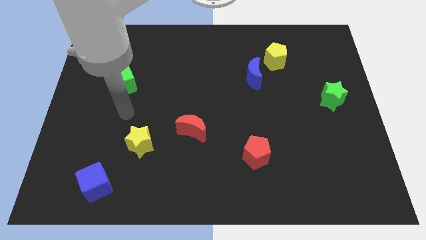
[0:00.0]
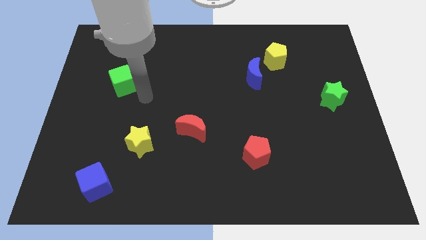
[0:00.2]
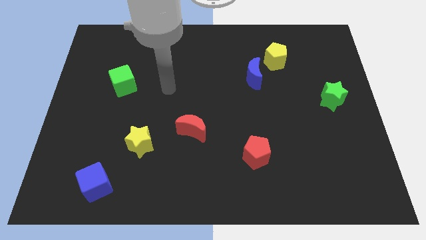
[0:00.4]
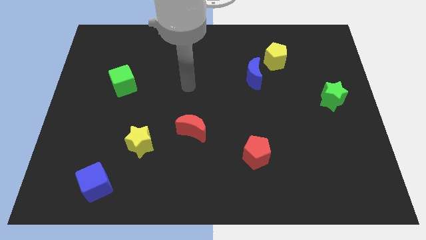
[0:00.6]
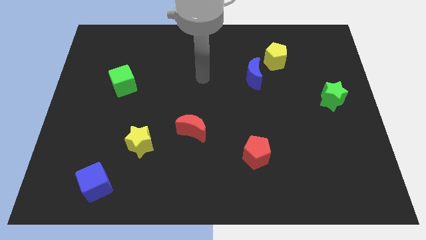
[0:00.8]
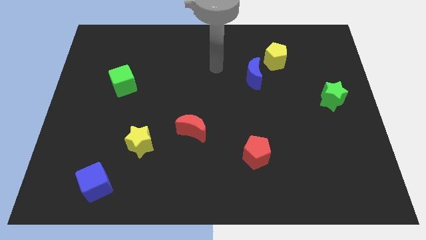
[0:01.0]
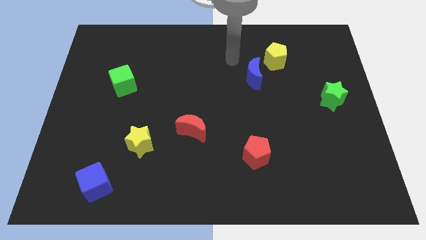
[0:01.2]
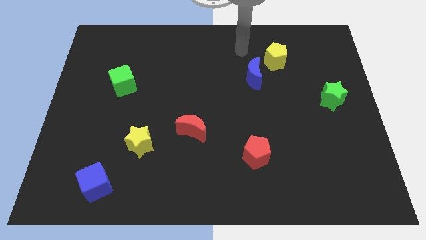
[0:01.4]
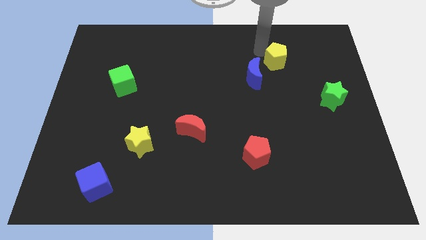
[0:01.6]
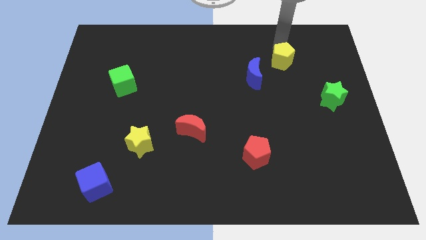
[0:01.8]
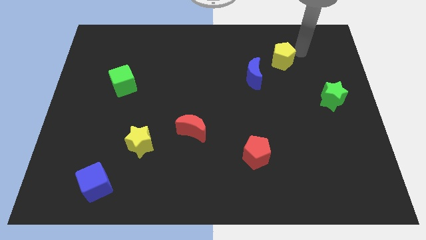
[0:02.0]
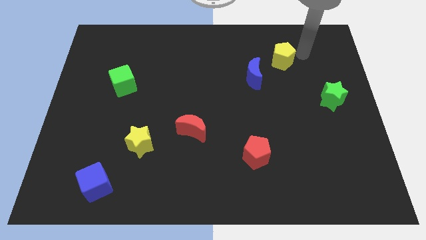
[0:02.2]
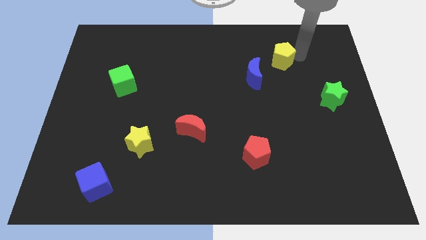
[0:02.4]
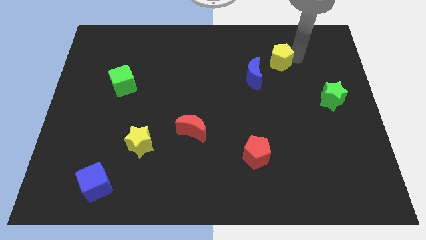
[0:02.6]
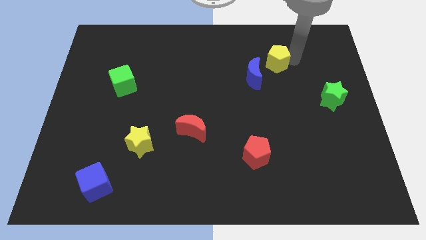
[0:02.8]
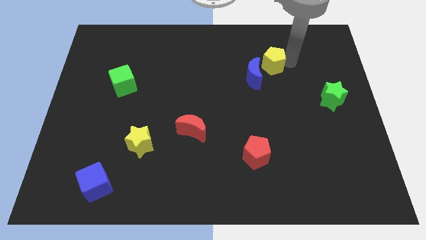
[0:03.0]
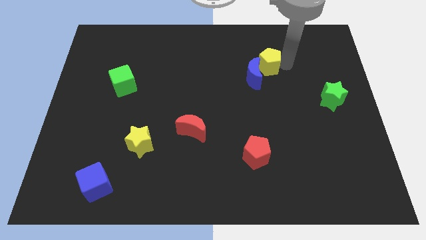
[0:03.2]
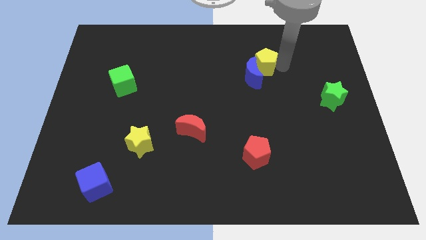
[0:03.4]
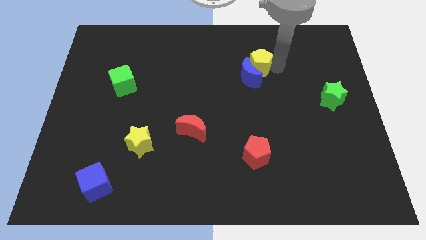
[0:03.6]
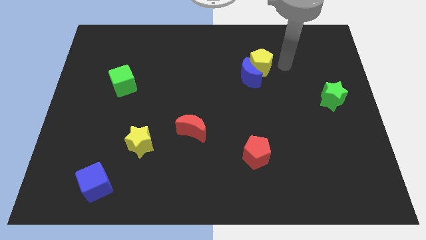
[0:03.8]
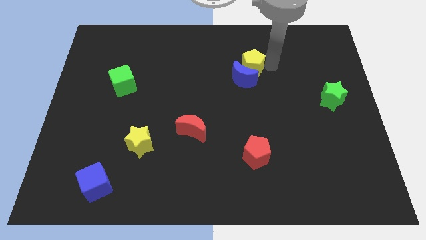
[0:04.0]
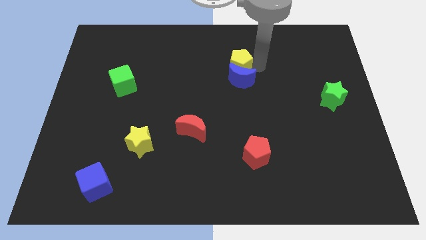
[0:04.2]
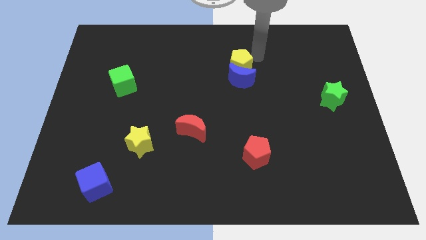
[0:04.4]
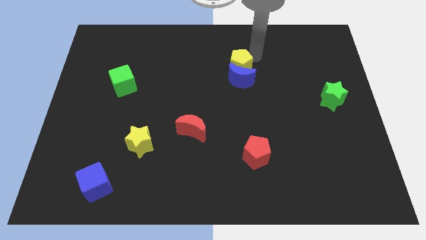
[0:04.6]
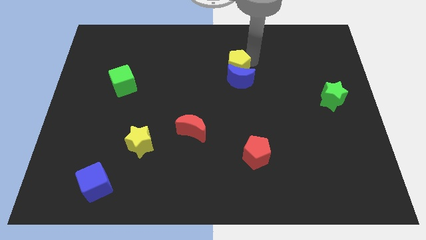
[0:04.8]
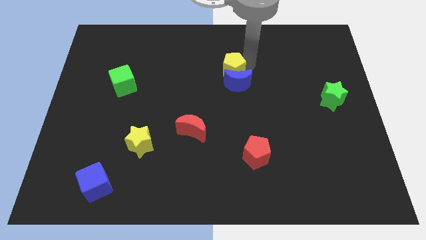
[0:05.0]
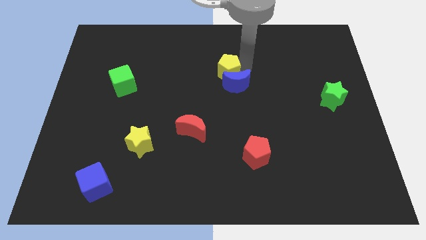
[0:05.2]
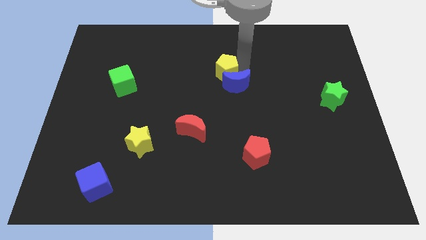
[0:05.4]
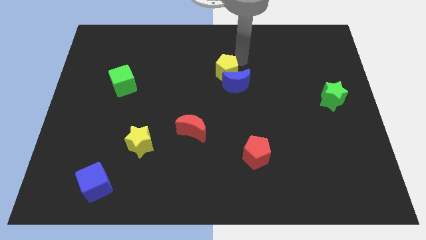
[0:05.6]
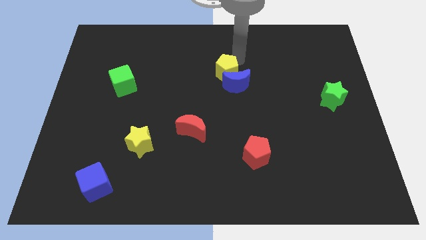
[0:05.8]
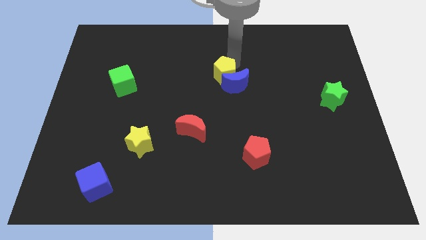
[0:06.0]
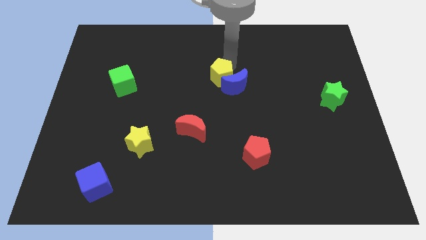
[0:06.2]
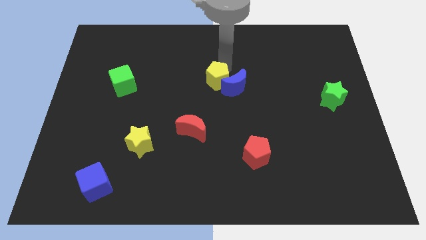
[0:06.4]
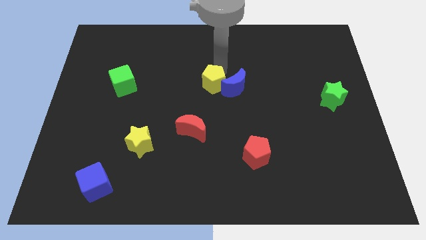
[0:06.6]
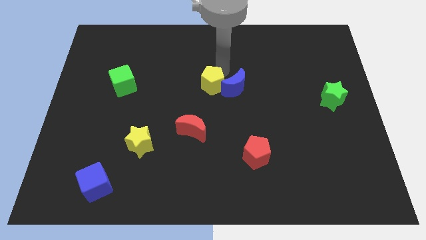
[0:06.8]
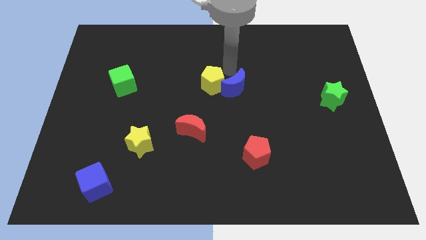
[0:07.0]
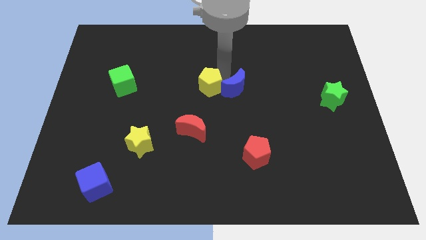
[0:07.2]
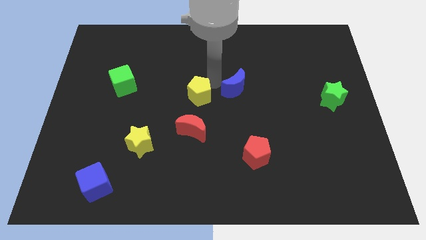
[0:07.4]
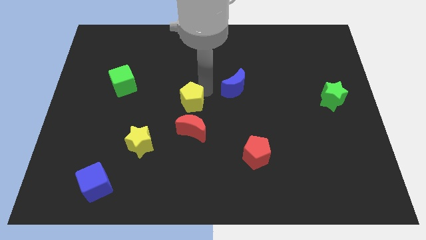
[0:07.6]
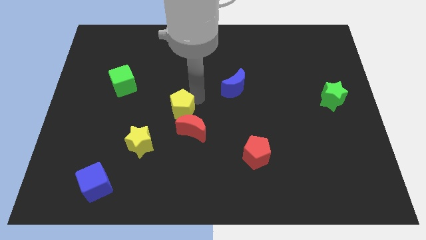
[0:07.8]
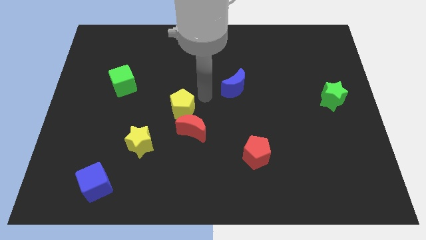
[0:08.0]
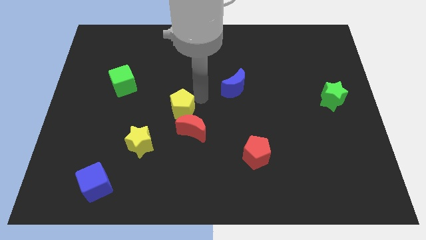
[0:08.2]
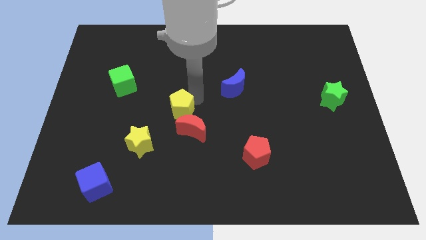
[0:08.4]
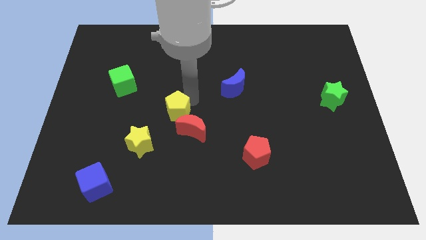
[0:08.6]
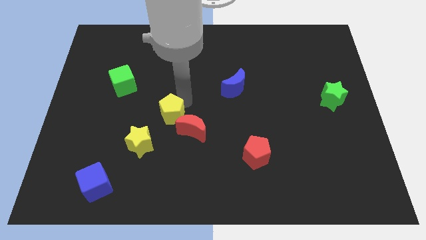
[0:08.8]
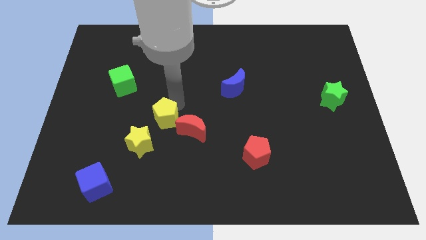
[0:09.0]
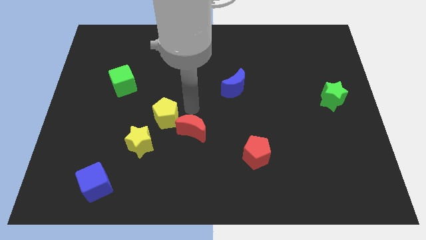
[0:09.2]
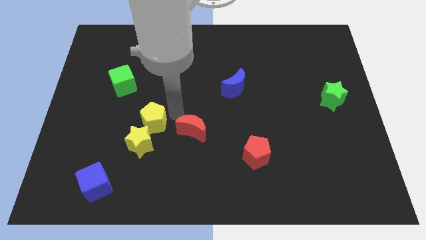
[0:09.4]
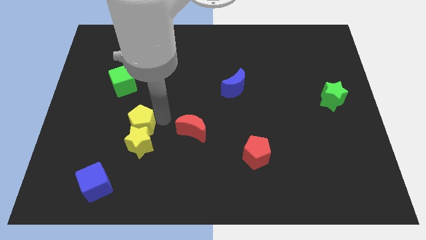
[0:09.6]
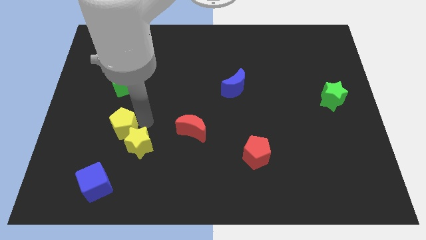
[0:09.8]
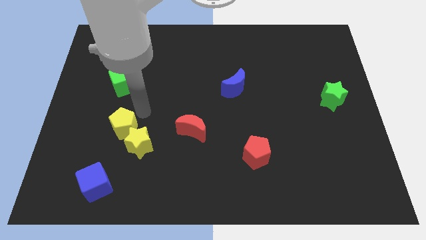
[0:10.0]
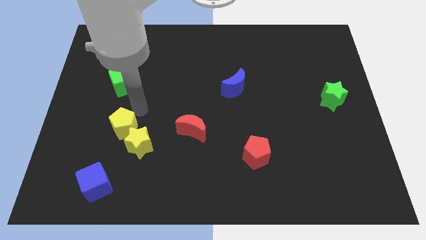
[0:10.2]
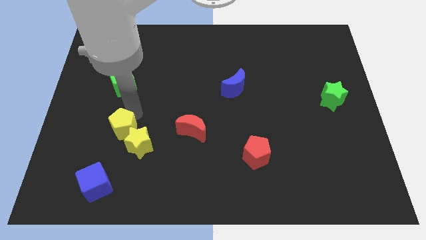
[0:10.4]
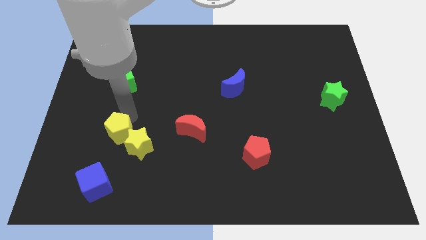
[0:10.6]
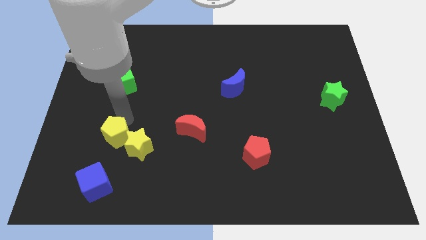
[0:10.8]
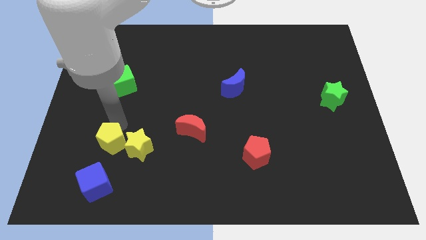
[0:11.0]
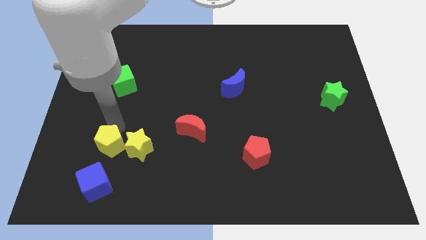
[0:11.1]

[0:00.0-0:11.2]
put the yellow pentagon to the bottom left side of the yellow star

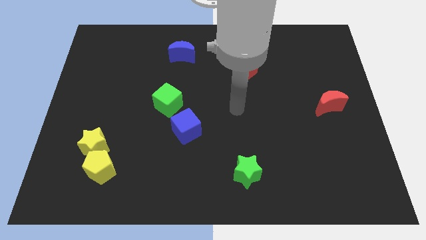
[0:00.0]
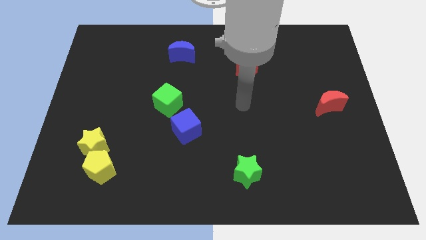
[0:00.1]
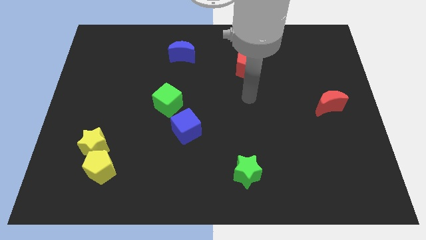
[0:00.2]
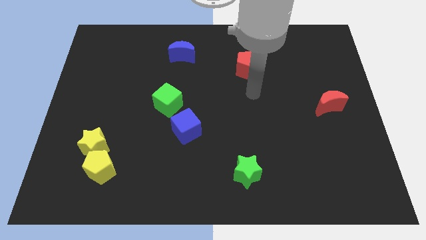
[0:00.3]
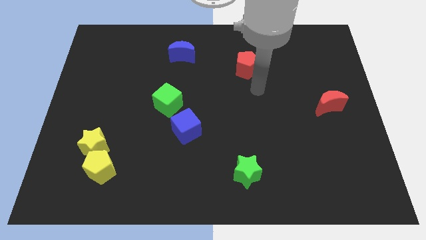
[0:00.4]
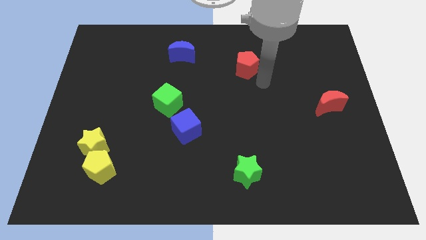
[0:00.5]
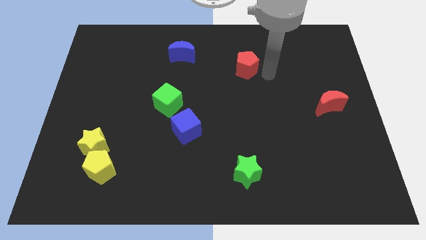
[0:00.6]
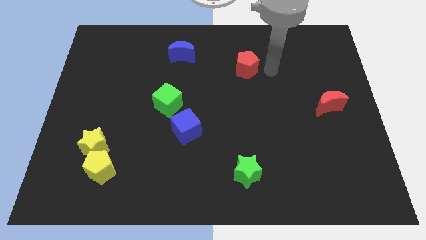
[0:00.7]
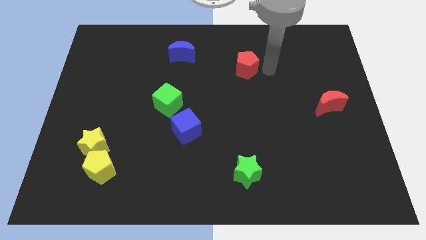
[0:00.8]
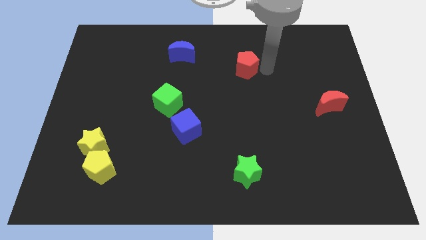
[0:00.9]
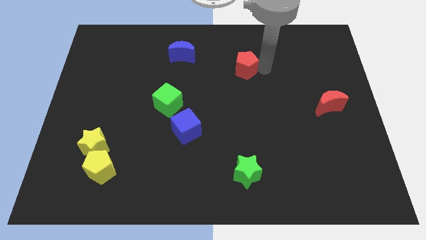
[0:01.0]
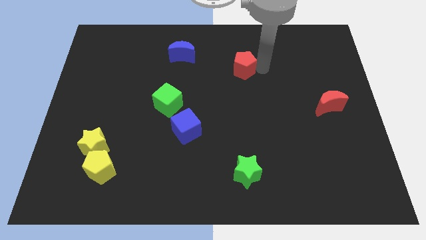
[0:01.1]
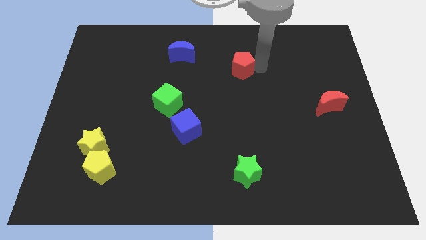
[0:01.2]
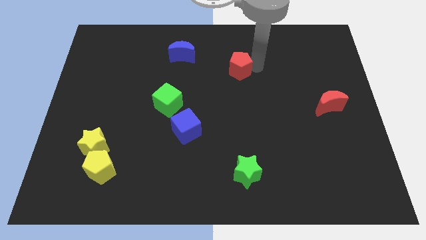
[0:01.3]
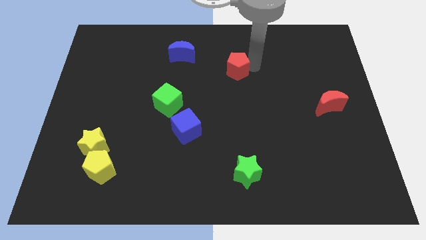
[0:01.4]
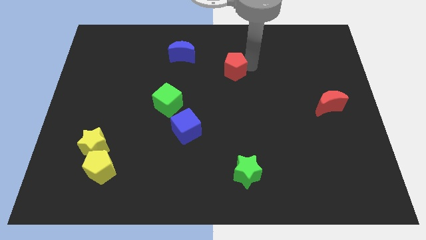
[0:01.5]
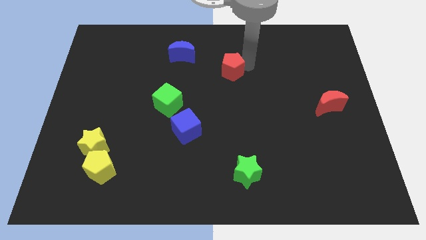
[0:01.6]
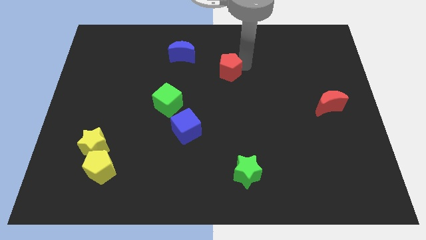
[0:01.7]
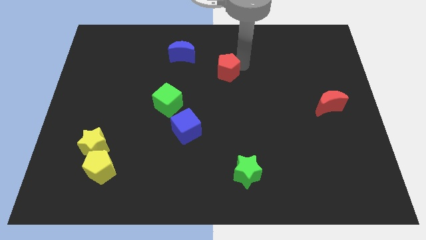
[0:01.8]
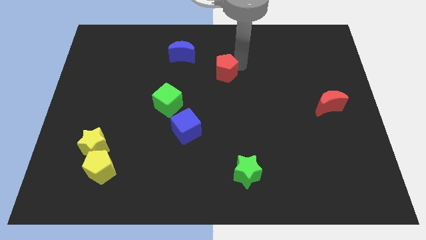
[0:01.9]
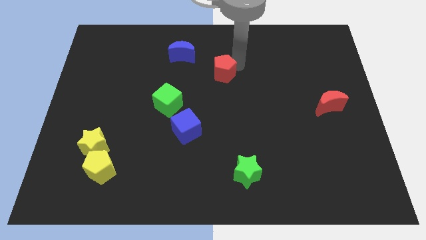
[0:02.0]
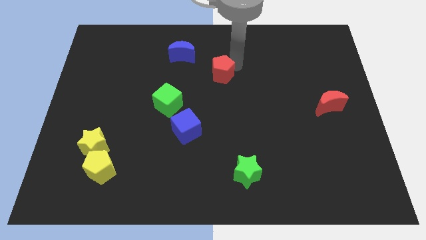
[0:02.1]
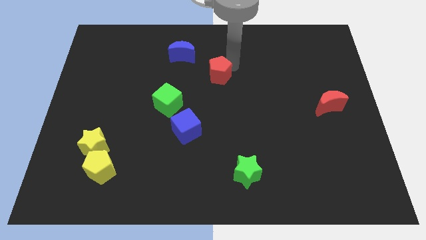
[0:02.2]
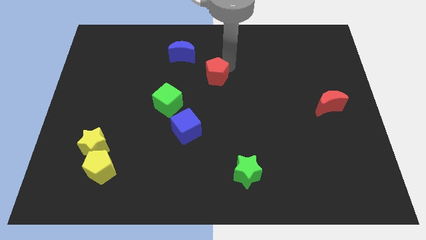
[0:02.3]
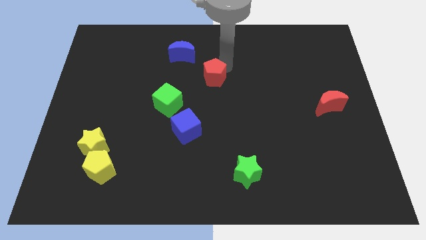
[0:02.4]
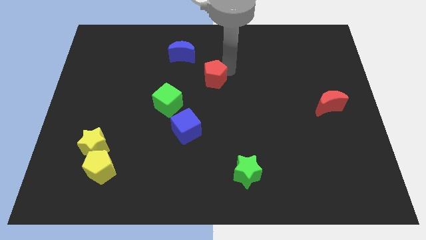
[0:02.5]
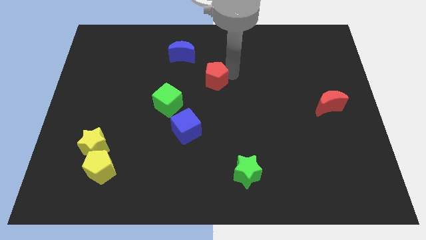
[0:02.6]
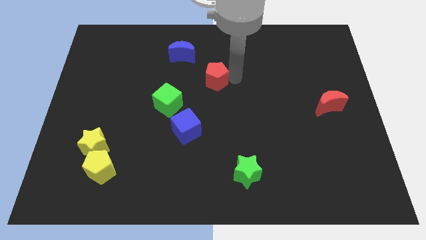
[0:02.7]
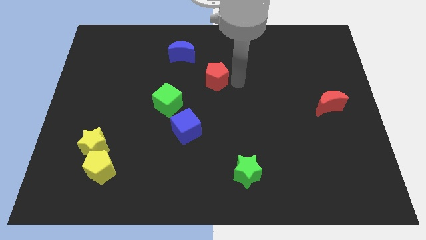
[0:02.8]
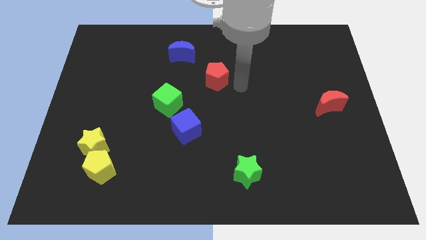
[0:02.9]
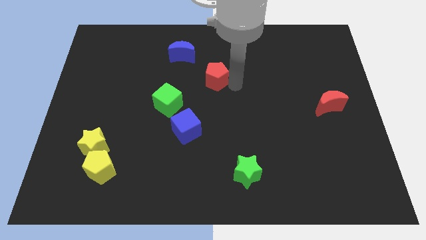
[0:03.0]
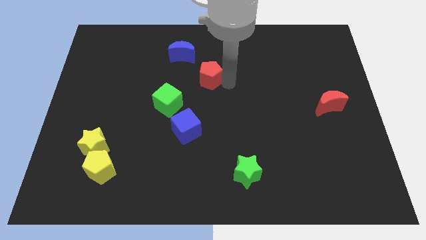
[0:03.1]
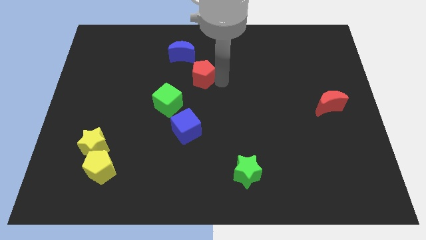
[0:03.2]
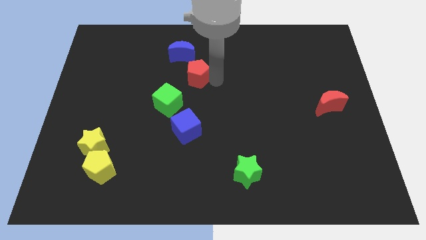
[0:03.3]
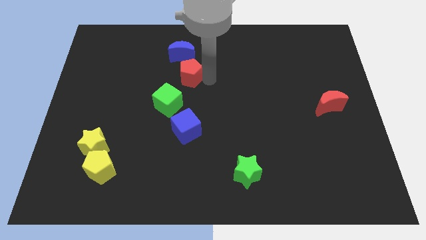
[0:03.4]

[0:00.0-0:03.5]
move the red pentagon above the green cube
